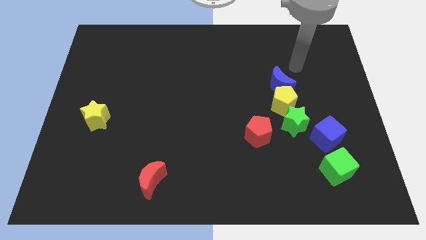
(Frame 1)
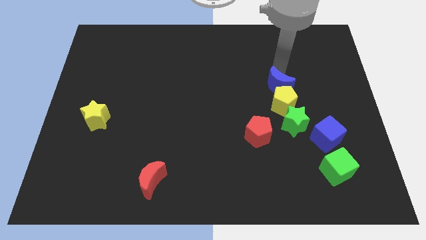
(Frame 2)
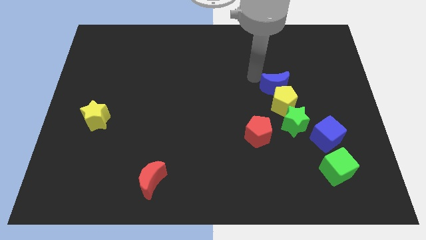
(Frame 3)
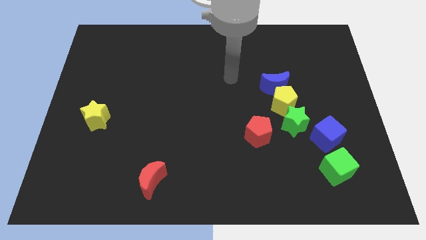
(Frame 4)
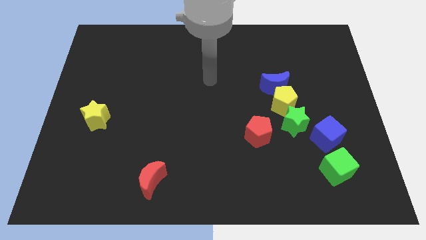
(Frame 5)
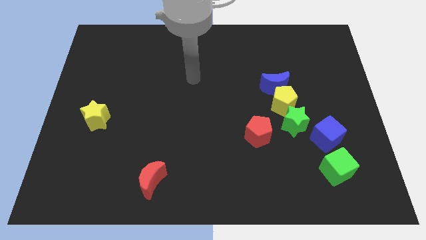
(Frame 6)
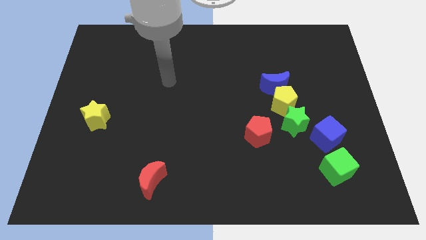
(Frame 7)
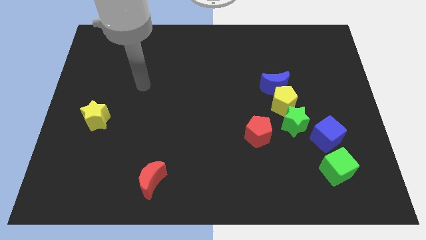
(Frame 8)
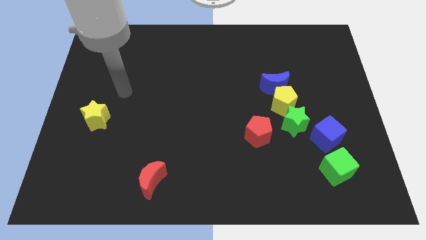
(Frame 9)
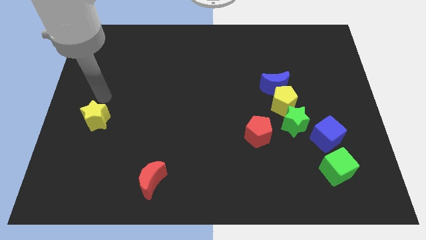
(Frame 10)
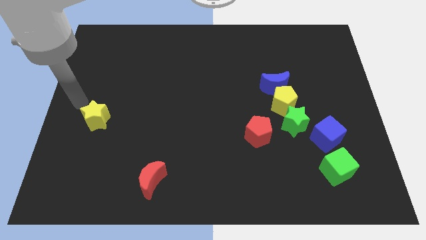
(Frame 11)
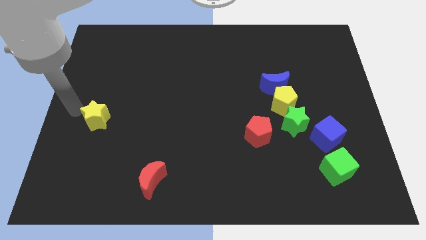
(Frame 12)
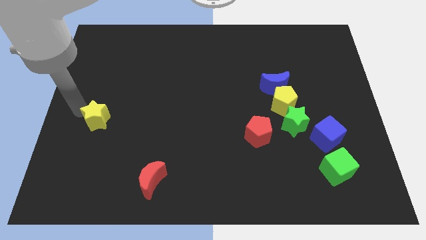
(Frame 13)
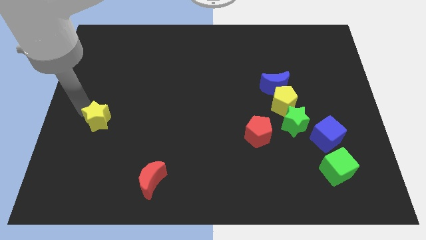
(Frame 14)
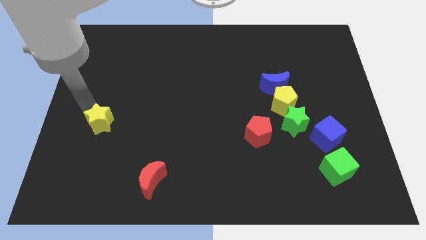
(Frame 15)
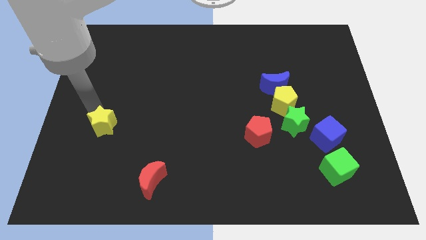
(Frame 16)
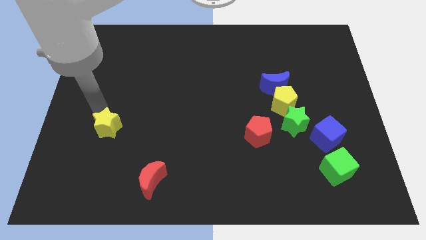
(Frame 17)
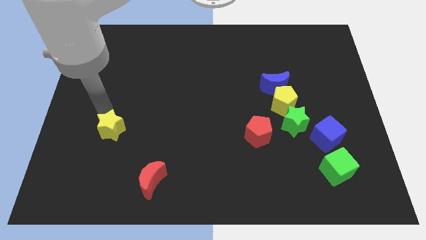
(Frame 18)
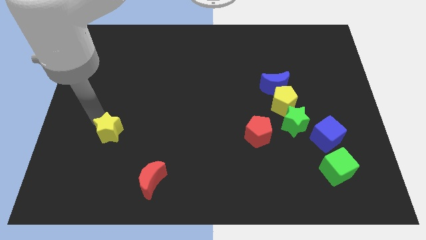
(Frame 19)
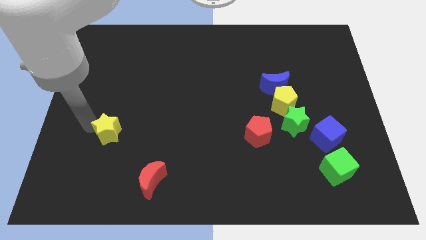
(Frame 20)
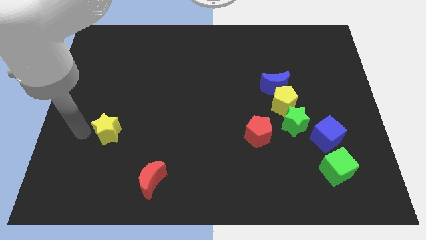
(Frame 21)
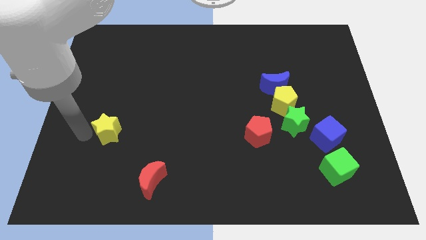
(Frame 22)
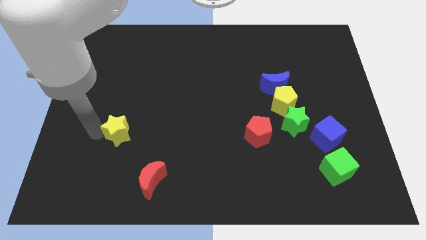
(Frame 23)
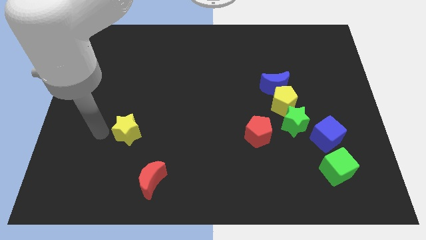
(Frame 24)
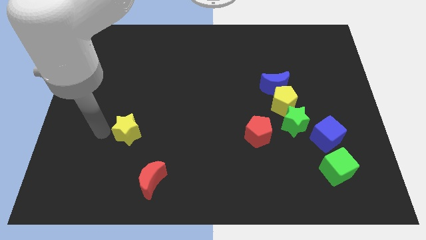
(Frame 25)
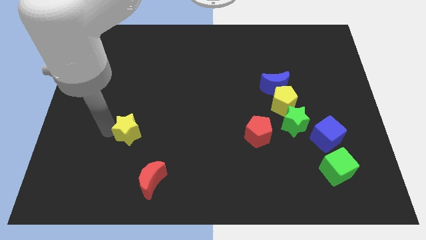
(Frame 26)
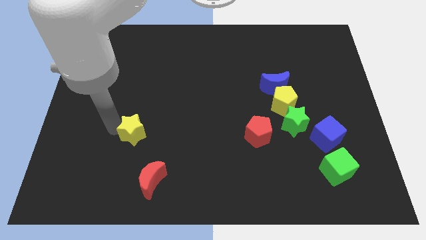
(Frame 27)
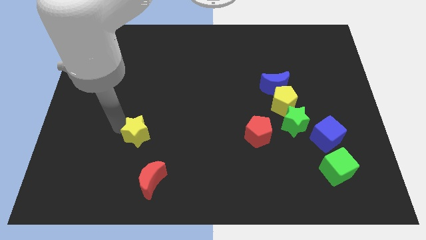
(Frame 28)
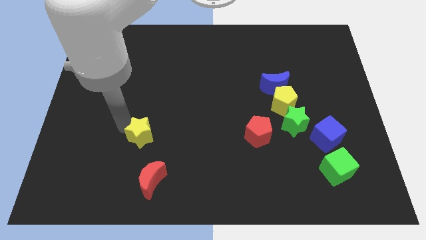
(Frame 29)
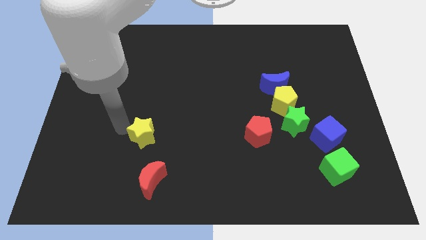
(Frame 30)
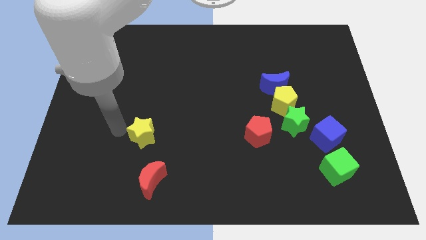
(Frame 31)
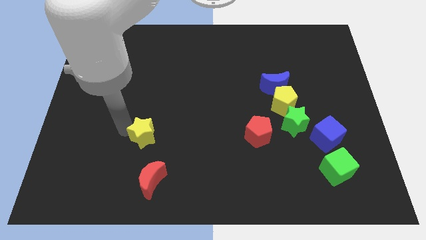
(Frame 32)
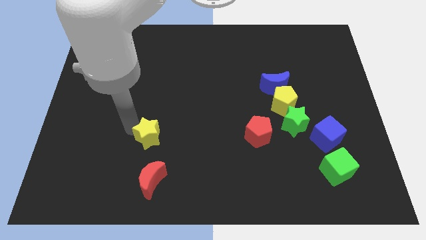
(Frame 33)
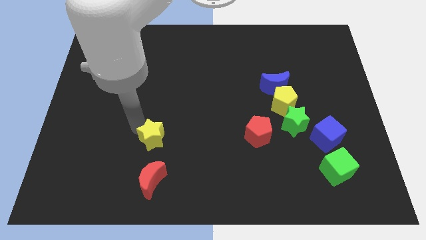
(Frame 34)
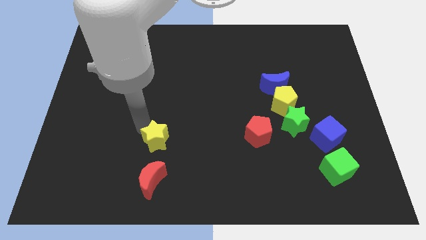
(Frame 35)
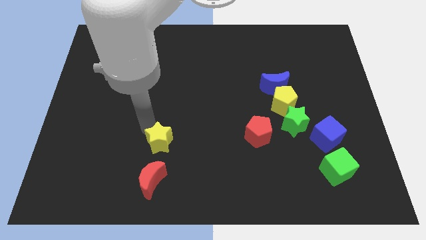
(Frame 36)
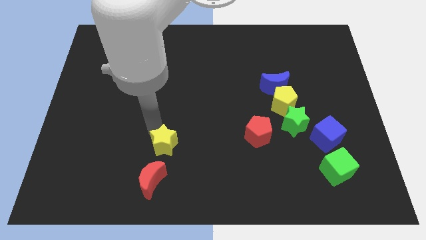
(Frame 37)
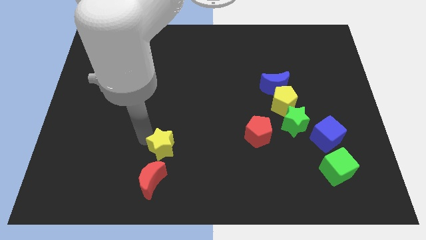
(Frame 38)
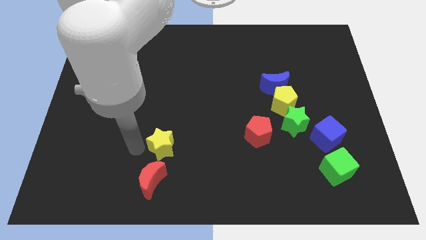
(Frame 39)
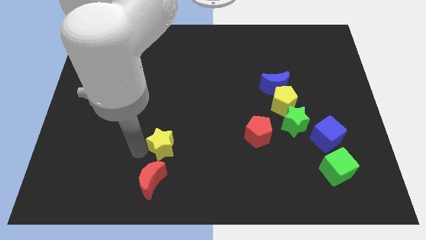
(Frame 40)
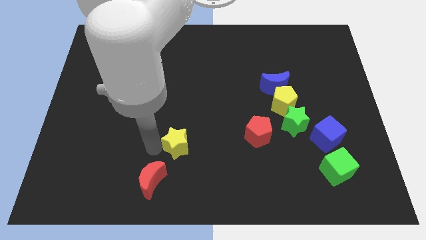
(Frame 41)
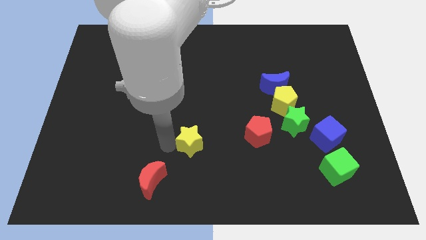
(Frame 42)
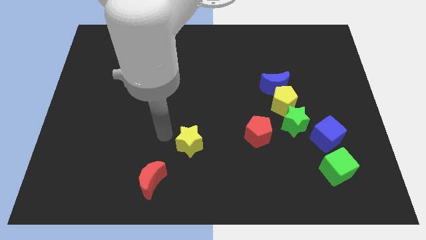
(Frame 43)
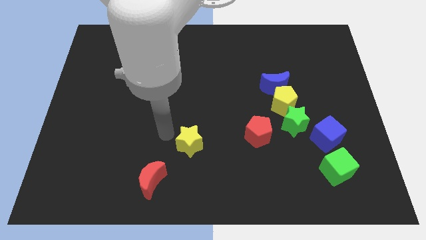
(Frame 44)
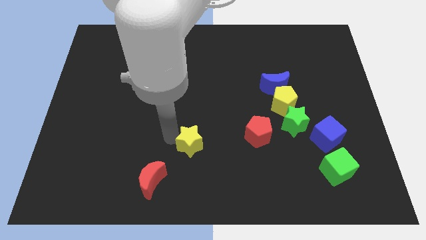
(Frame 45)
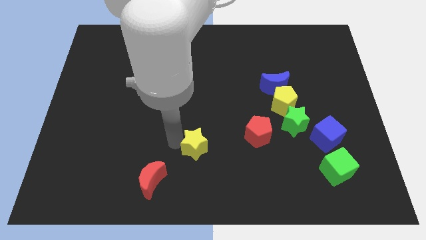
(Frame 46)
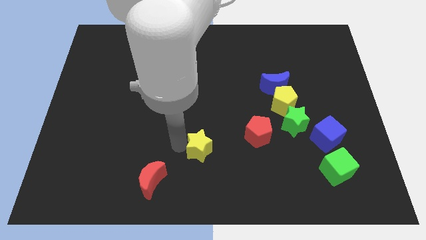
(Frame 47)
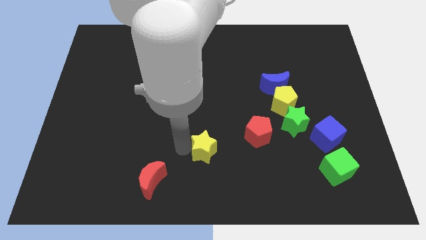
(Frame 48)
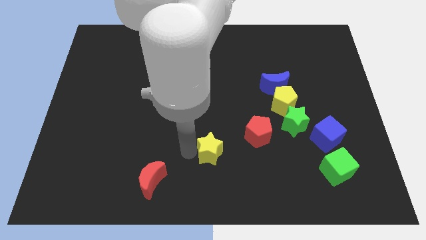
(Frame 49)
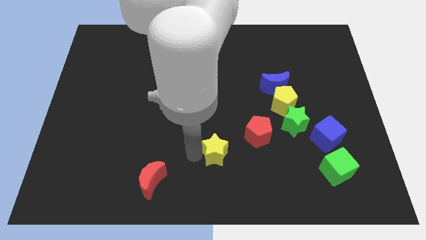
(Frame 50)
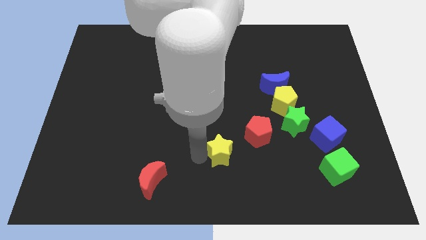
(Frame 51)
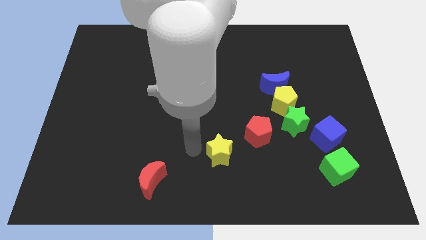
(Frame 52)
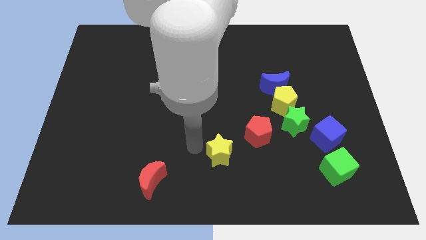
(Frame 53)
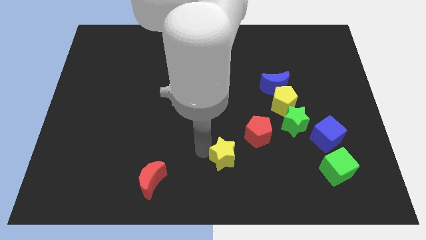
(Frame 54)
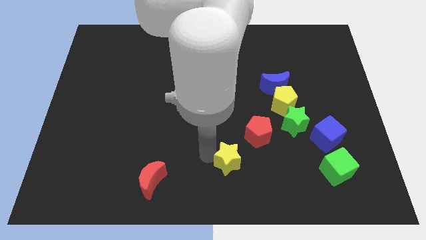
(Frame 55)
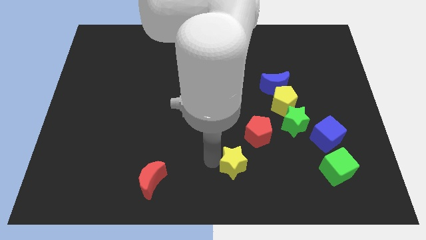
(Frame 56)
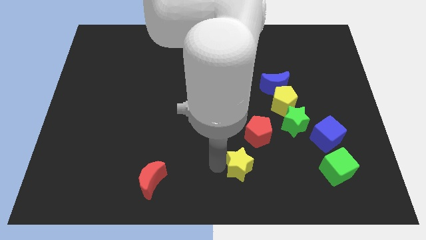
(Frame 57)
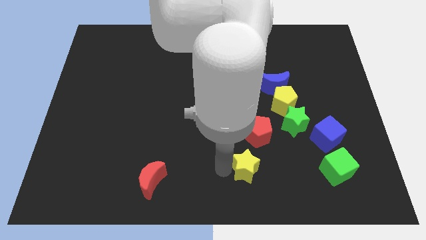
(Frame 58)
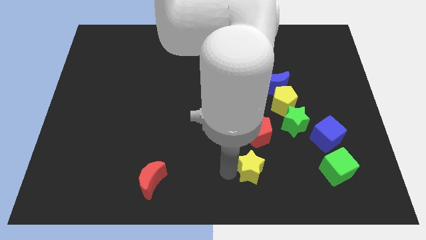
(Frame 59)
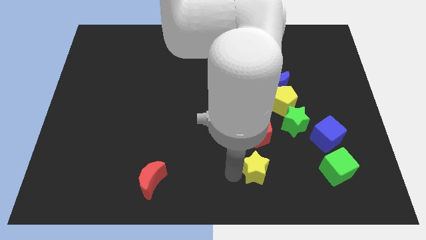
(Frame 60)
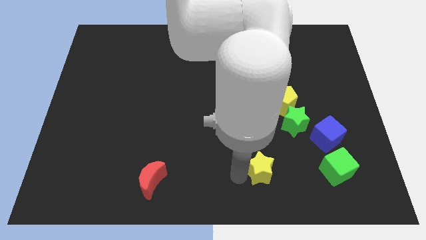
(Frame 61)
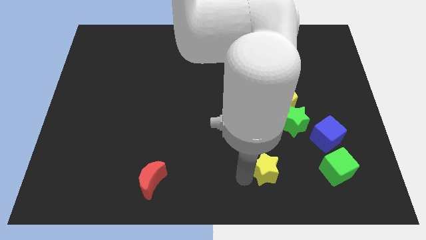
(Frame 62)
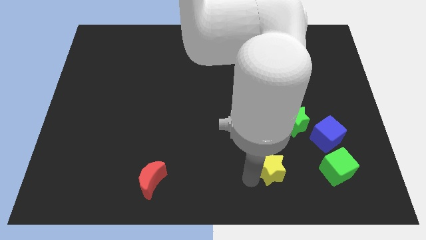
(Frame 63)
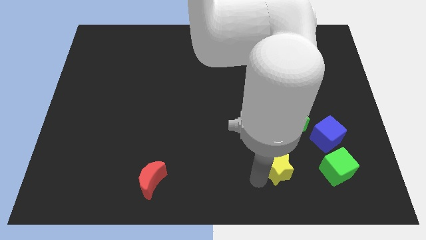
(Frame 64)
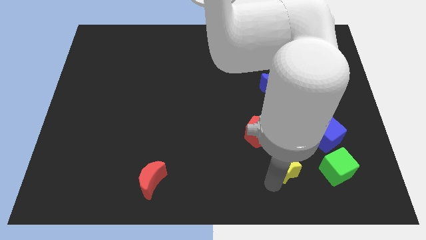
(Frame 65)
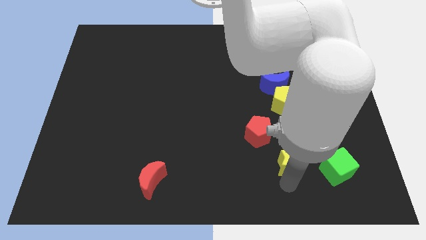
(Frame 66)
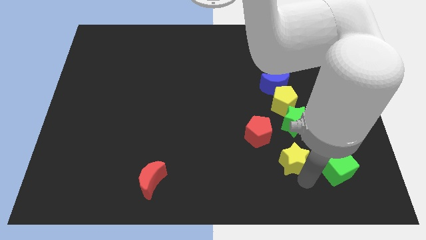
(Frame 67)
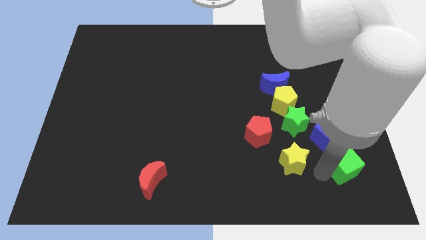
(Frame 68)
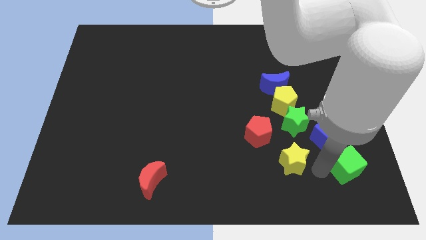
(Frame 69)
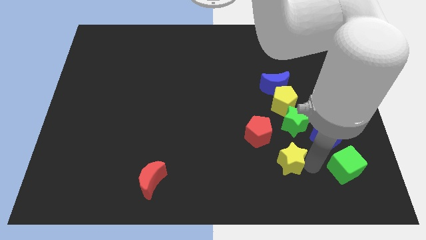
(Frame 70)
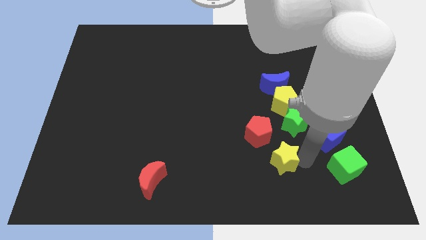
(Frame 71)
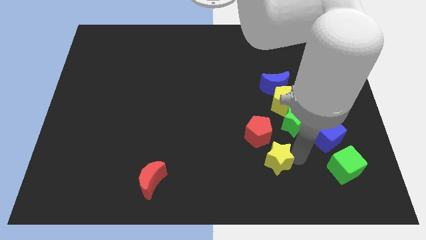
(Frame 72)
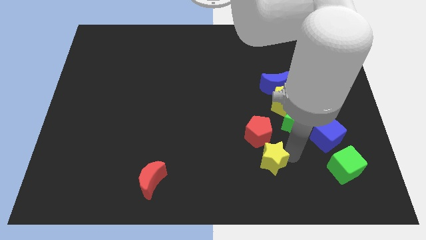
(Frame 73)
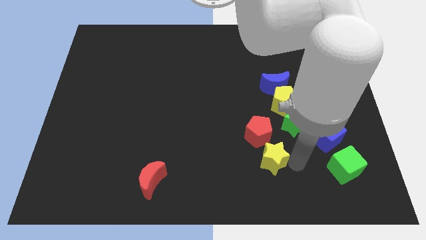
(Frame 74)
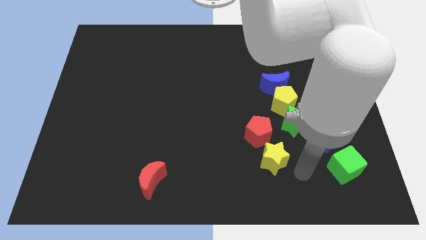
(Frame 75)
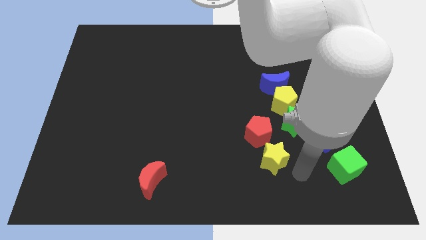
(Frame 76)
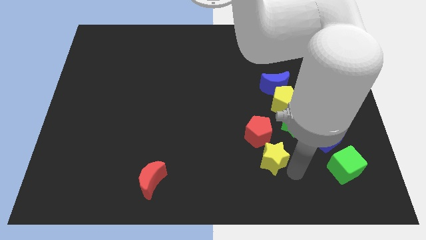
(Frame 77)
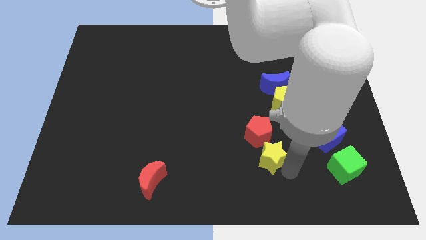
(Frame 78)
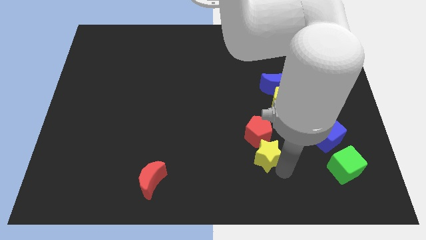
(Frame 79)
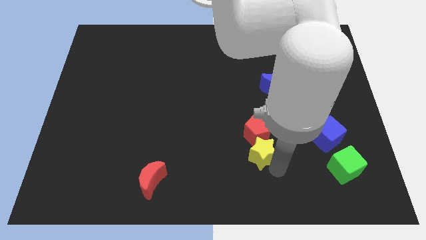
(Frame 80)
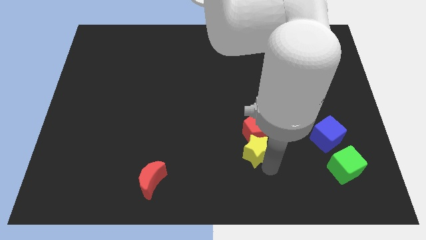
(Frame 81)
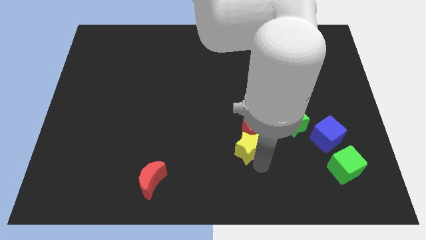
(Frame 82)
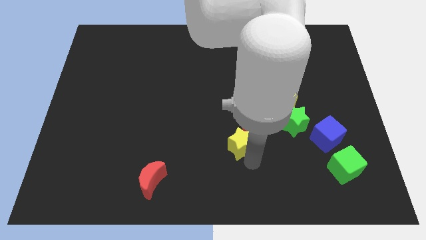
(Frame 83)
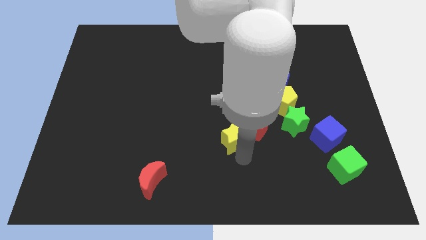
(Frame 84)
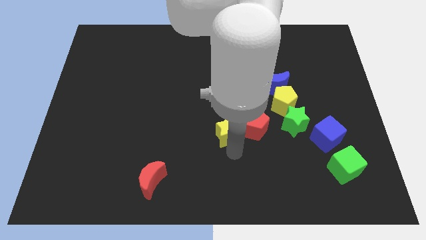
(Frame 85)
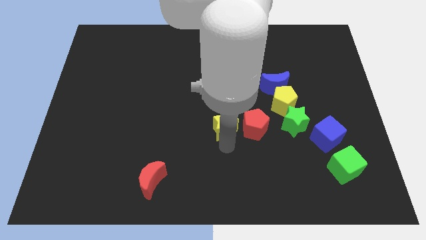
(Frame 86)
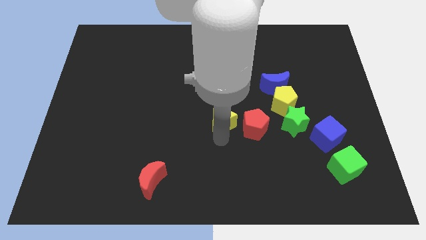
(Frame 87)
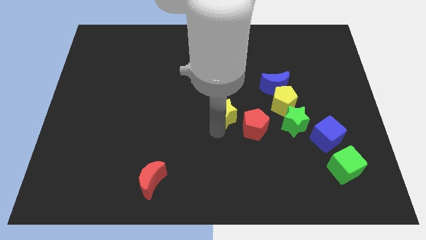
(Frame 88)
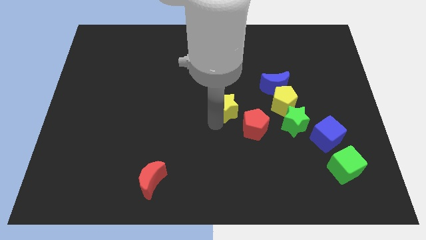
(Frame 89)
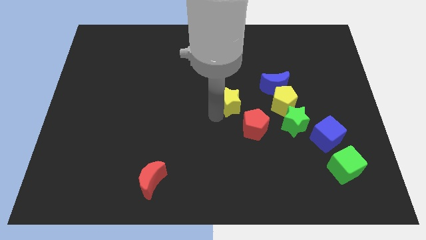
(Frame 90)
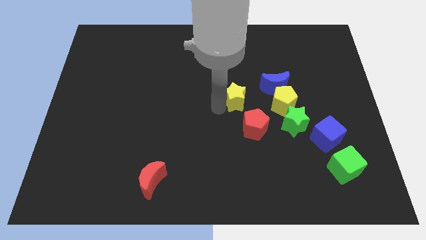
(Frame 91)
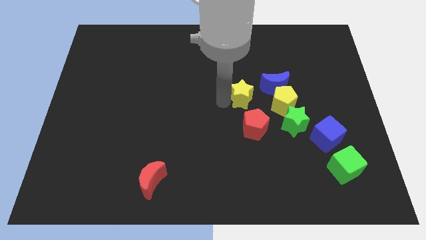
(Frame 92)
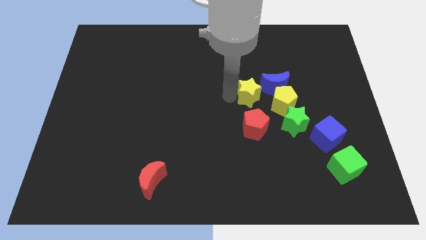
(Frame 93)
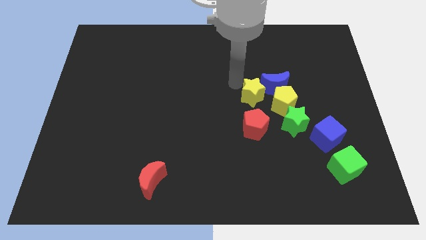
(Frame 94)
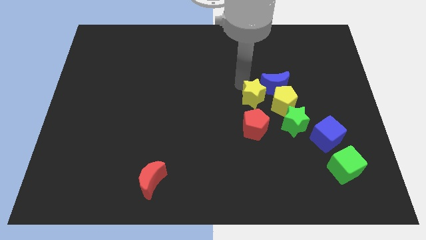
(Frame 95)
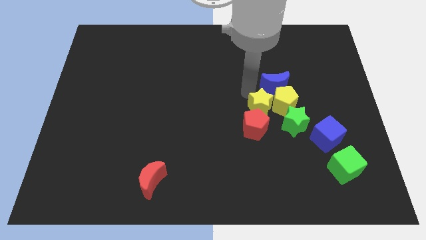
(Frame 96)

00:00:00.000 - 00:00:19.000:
move the yellow star below the blue moon
